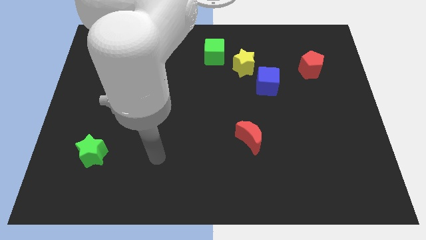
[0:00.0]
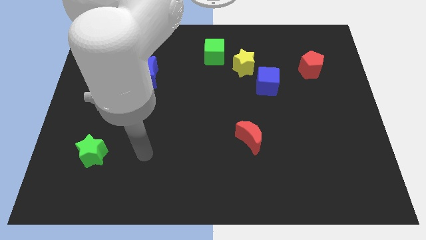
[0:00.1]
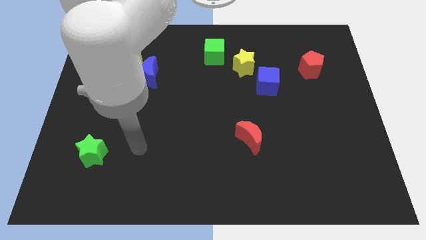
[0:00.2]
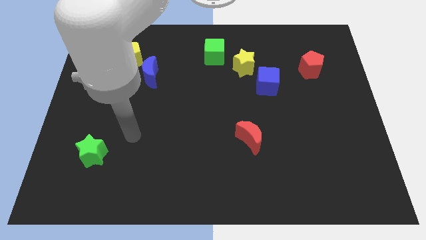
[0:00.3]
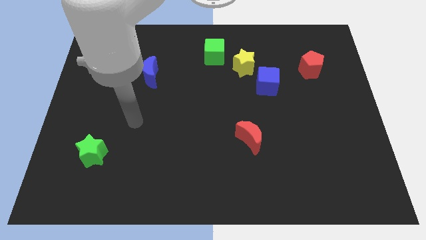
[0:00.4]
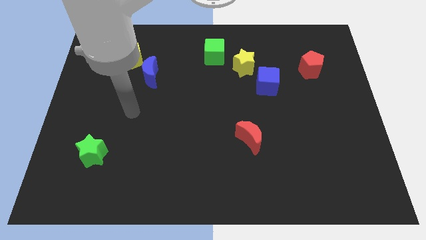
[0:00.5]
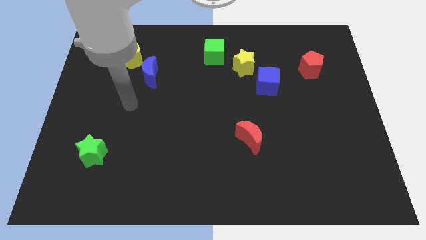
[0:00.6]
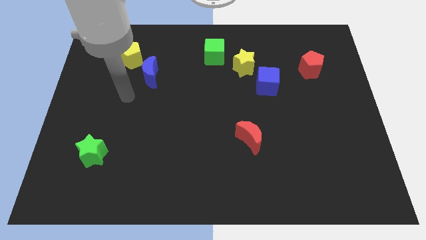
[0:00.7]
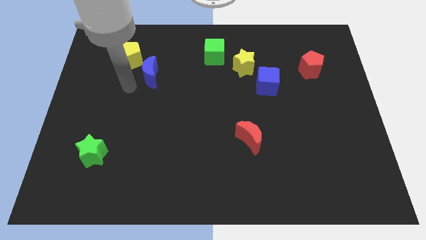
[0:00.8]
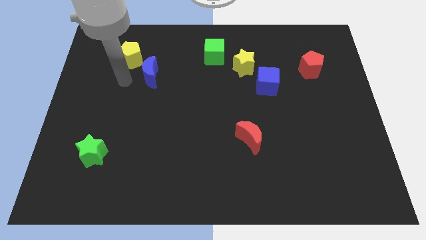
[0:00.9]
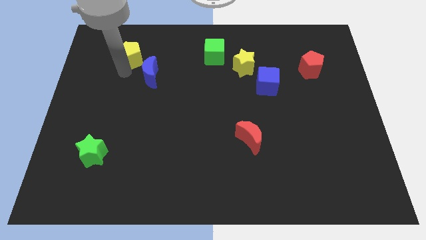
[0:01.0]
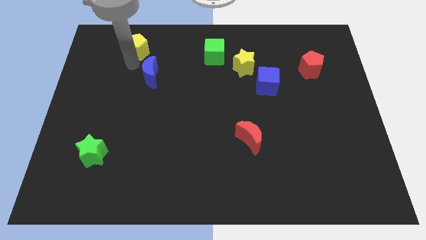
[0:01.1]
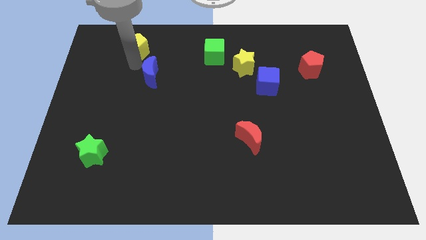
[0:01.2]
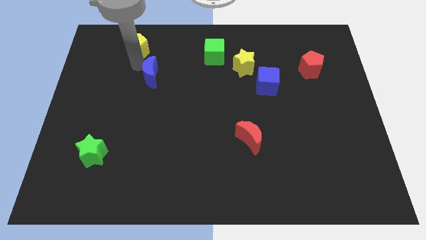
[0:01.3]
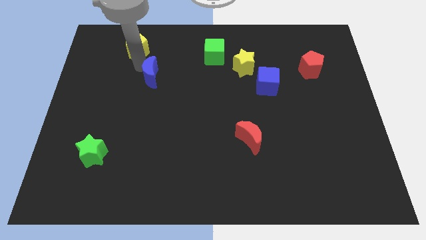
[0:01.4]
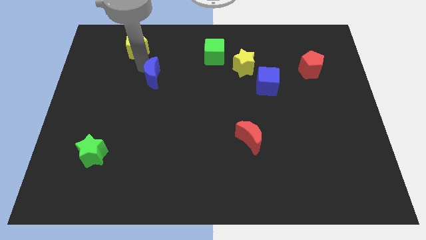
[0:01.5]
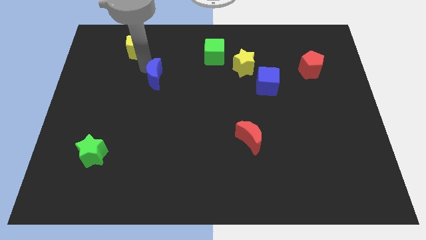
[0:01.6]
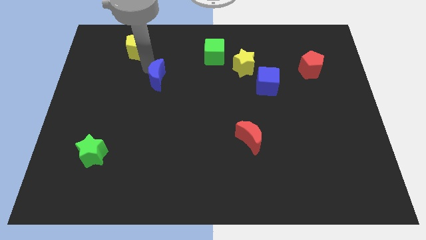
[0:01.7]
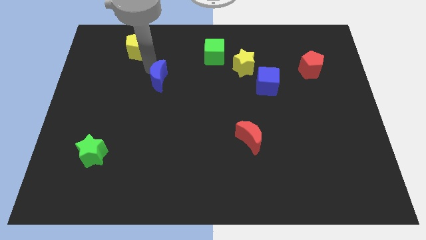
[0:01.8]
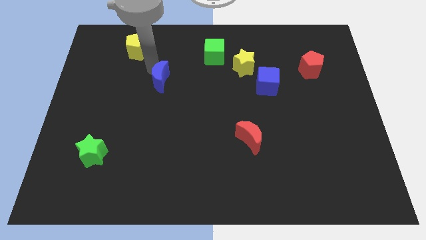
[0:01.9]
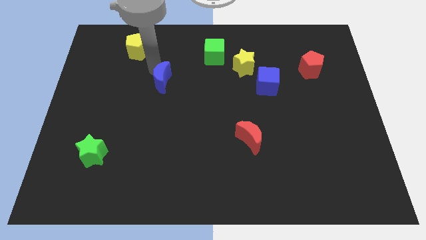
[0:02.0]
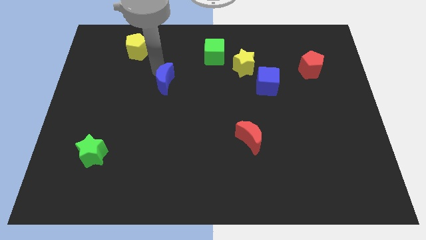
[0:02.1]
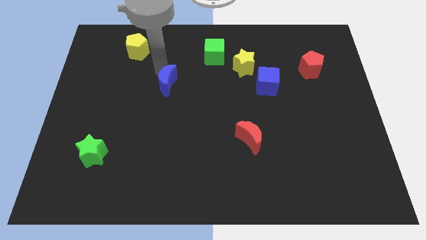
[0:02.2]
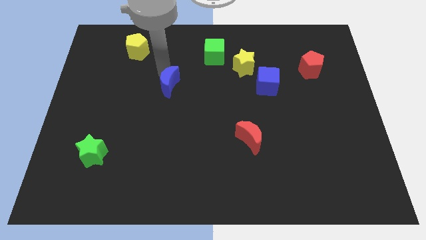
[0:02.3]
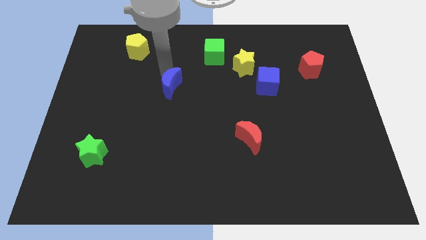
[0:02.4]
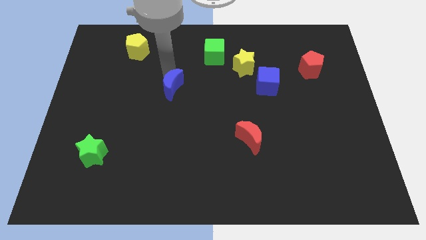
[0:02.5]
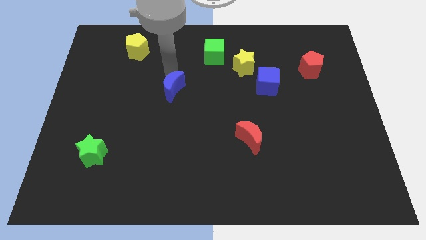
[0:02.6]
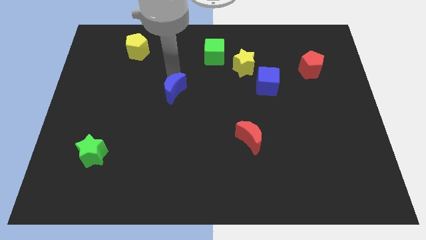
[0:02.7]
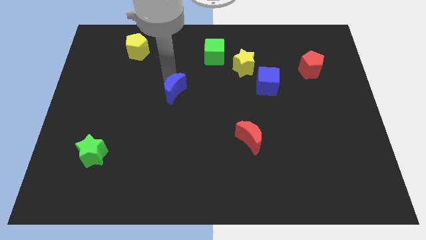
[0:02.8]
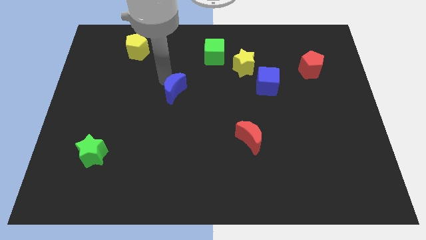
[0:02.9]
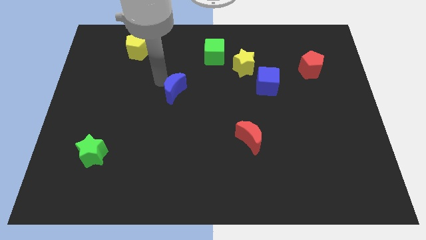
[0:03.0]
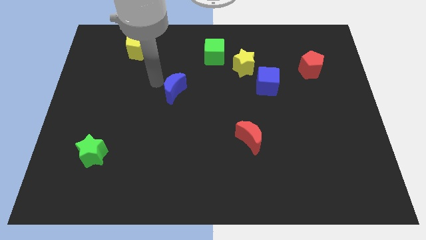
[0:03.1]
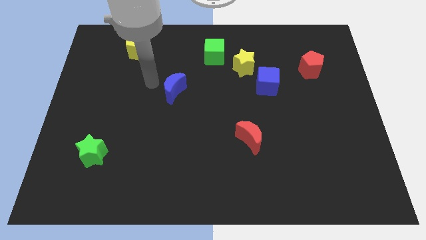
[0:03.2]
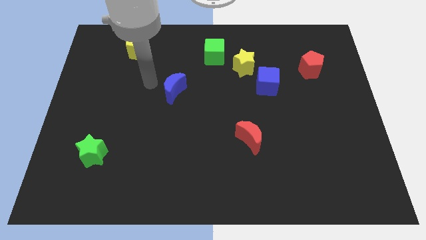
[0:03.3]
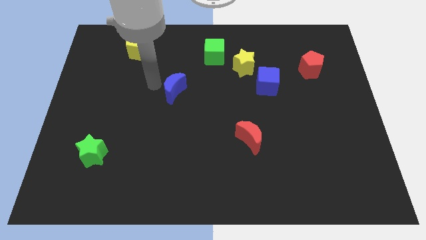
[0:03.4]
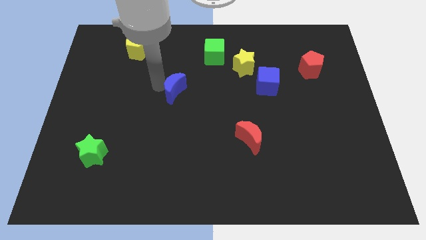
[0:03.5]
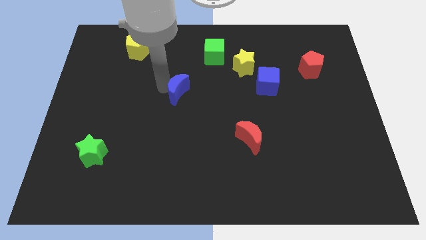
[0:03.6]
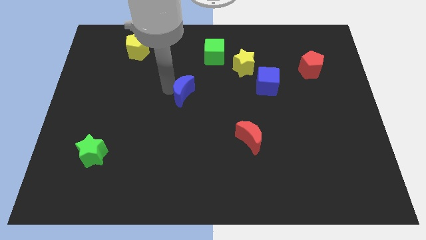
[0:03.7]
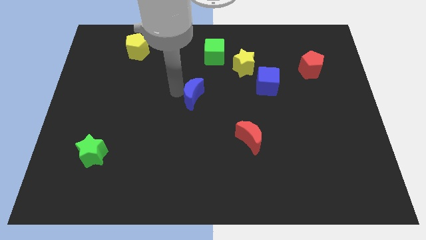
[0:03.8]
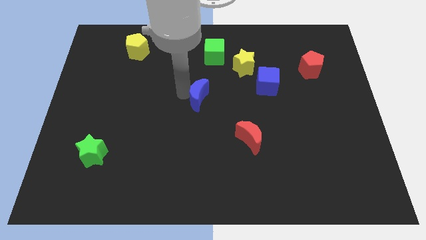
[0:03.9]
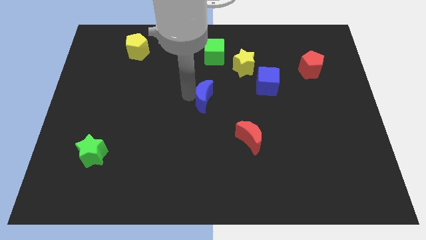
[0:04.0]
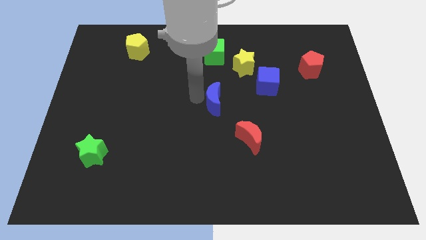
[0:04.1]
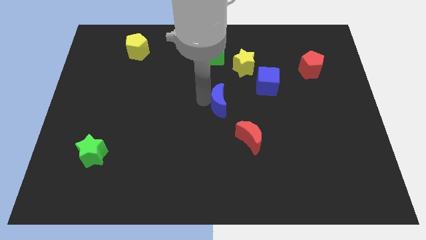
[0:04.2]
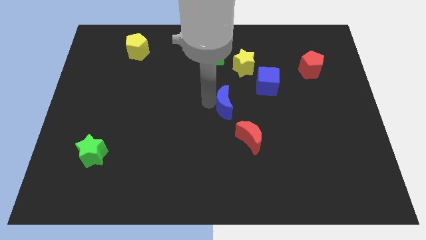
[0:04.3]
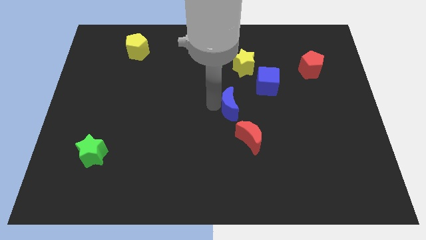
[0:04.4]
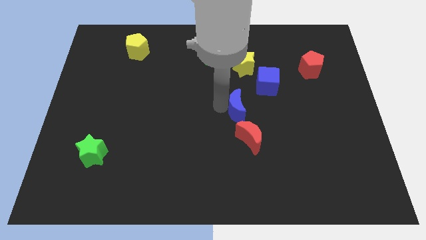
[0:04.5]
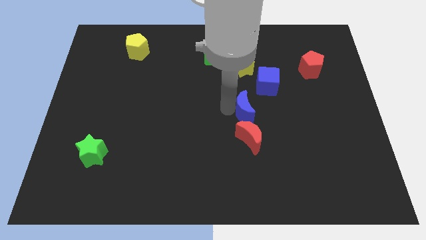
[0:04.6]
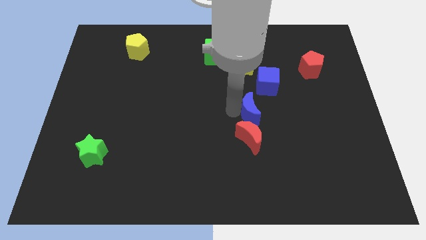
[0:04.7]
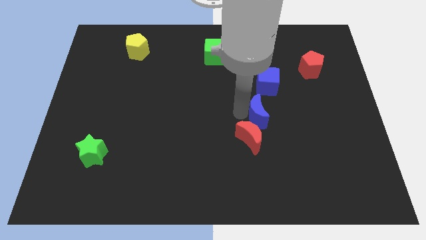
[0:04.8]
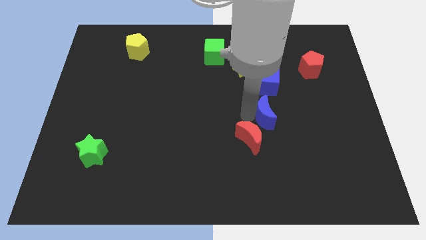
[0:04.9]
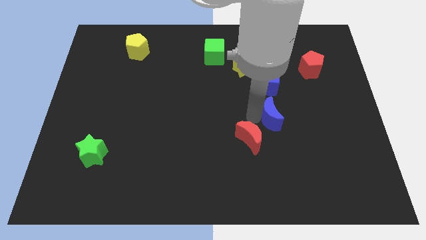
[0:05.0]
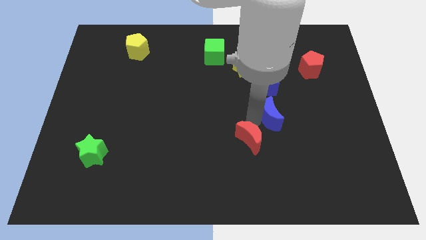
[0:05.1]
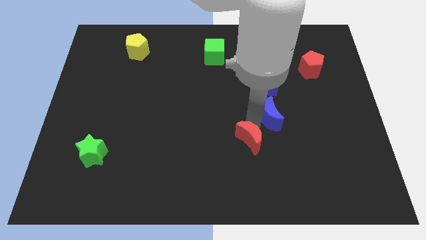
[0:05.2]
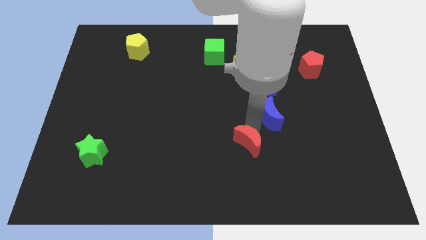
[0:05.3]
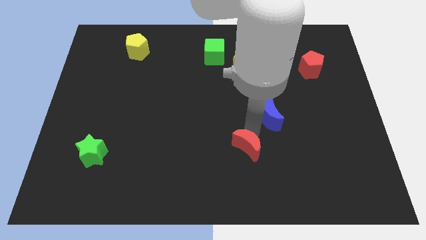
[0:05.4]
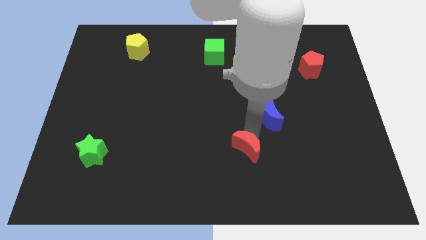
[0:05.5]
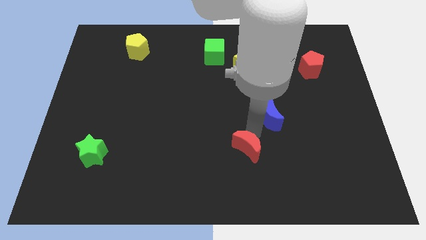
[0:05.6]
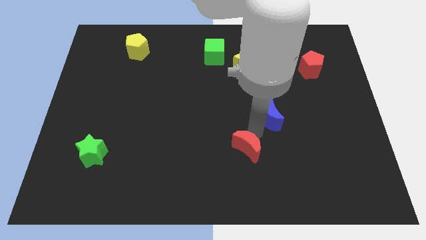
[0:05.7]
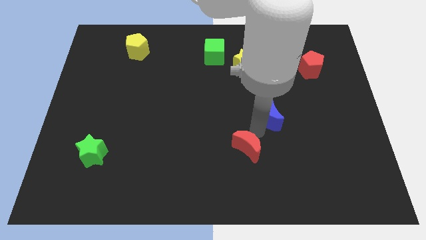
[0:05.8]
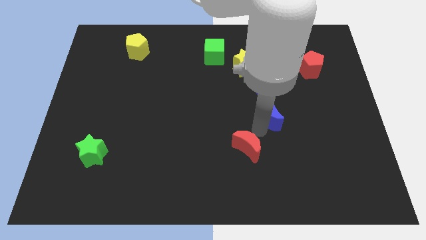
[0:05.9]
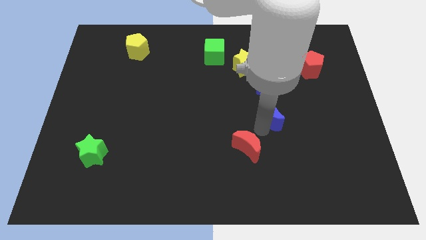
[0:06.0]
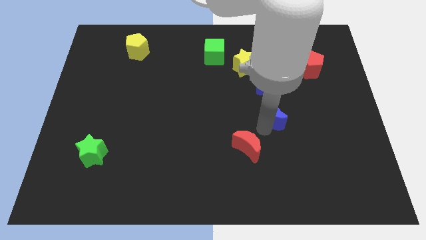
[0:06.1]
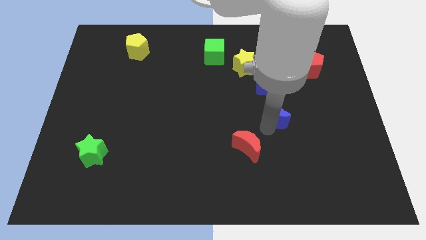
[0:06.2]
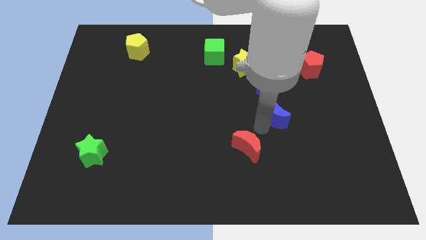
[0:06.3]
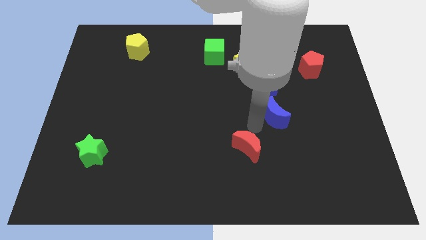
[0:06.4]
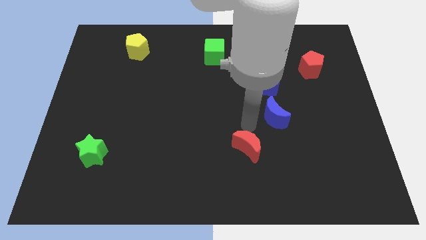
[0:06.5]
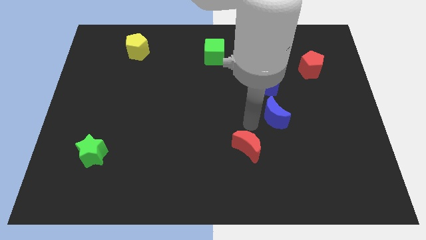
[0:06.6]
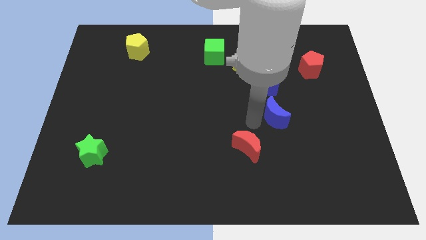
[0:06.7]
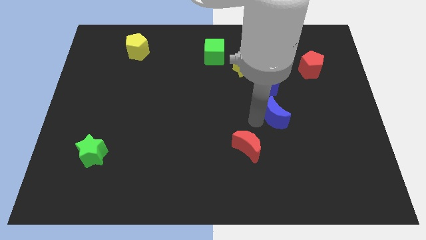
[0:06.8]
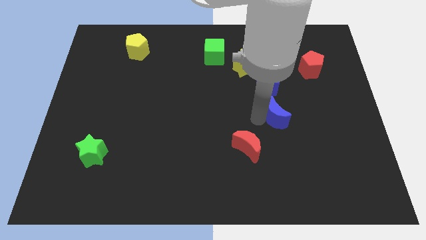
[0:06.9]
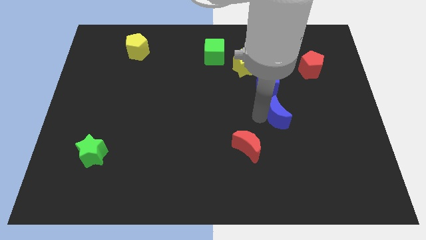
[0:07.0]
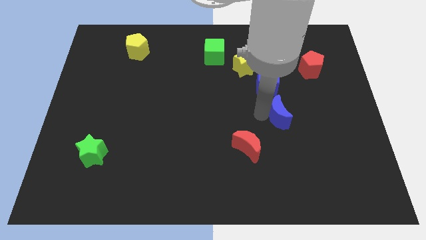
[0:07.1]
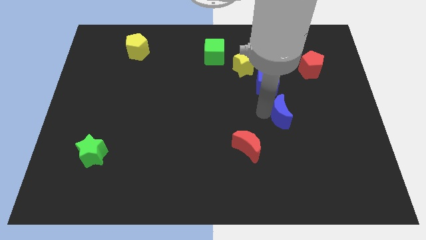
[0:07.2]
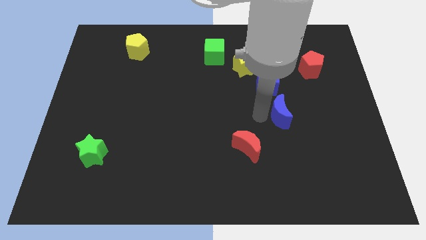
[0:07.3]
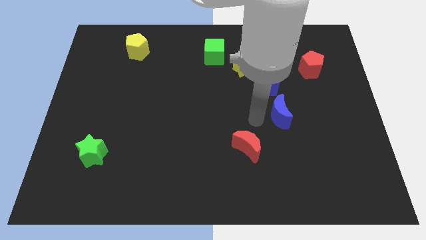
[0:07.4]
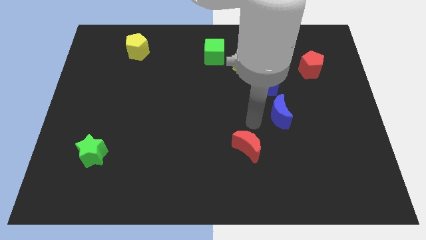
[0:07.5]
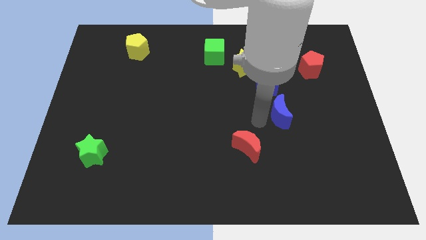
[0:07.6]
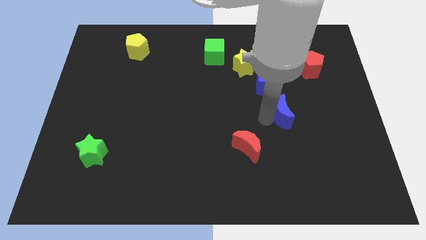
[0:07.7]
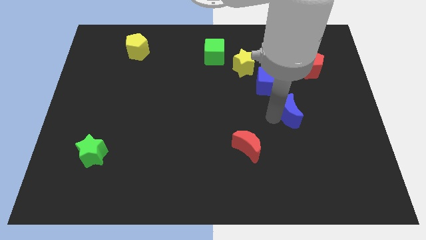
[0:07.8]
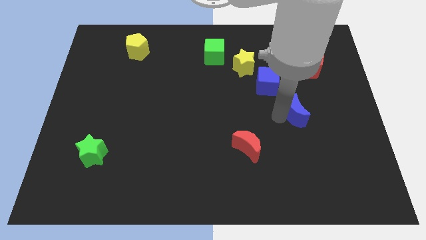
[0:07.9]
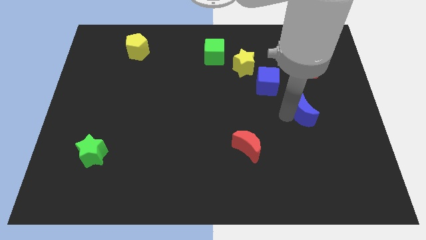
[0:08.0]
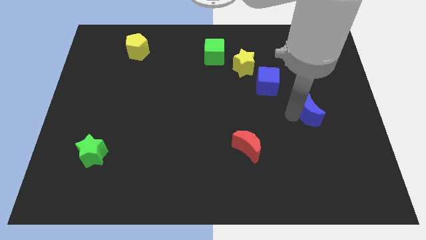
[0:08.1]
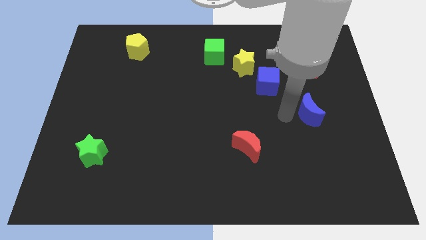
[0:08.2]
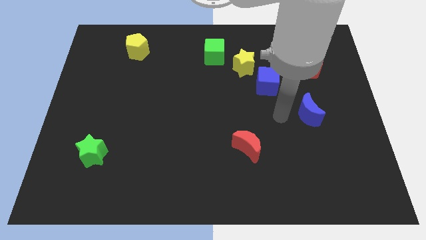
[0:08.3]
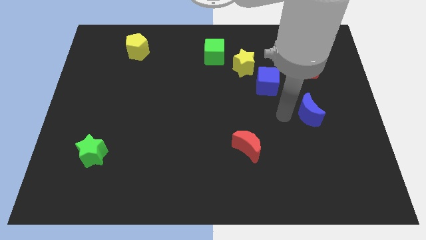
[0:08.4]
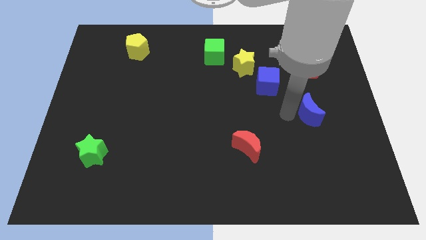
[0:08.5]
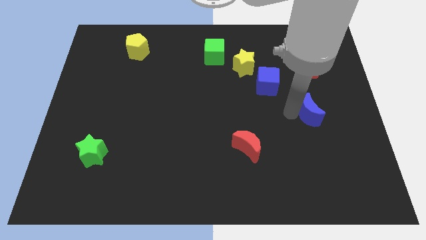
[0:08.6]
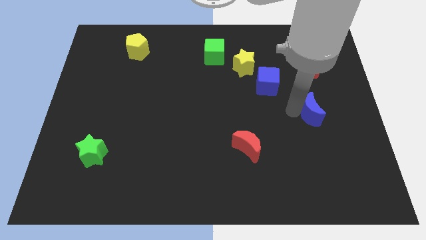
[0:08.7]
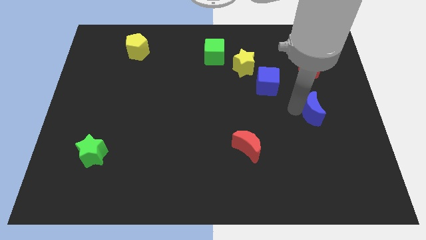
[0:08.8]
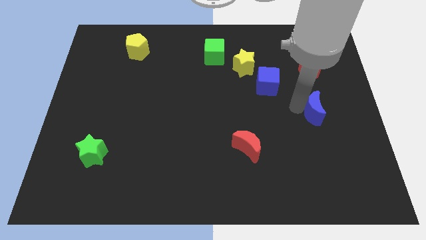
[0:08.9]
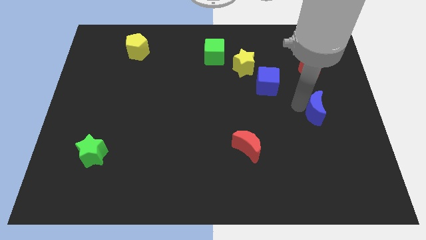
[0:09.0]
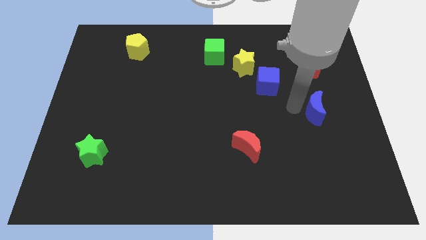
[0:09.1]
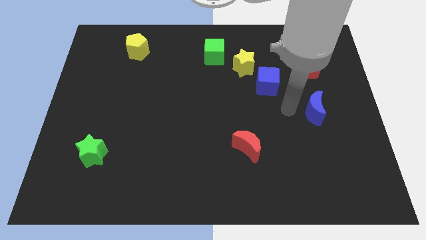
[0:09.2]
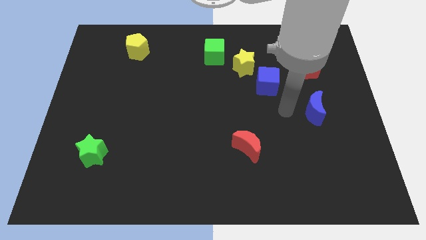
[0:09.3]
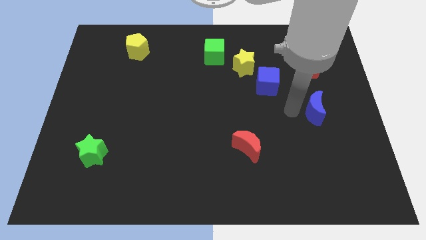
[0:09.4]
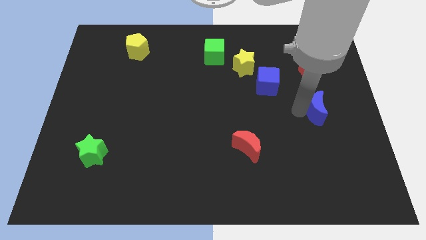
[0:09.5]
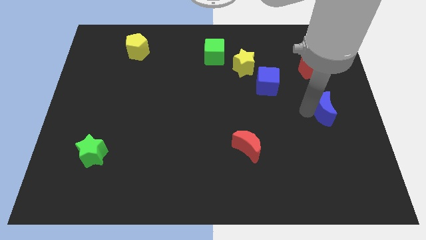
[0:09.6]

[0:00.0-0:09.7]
move the blue moon to the right side of the board
